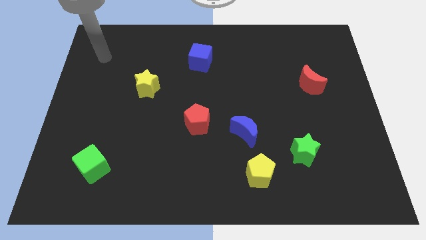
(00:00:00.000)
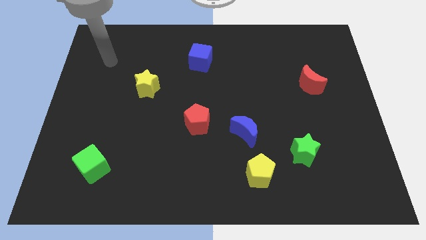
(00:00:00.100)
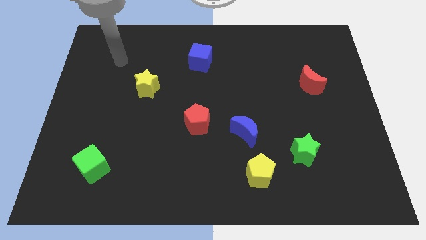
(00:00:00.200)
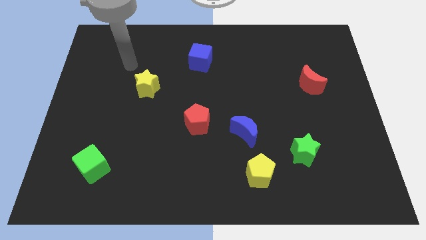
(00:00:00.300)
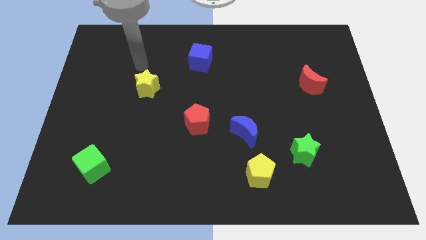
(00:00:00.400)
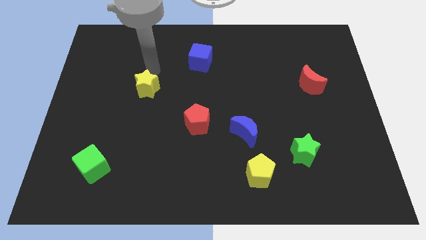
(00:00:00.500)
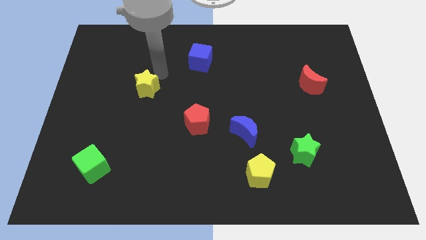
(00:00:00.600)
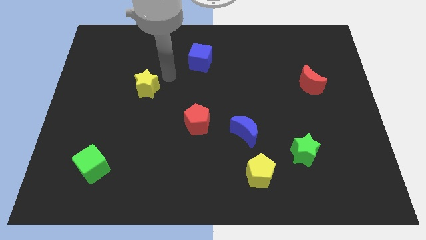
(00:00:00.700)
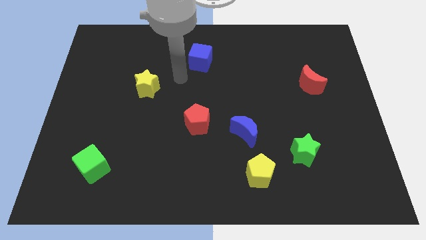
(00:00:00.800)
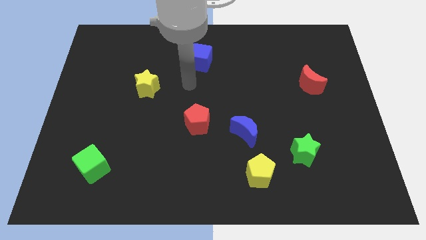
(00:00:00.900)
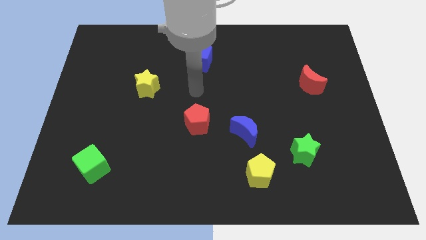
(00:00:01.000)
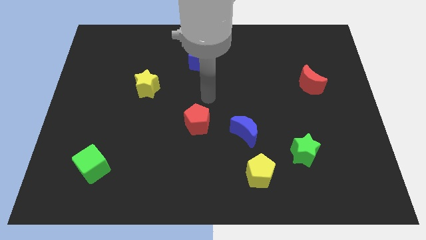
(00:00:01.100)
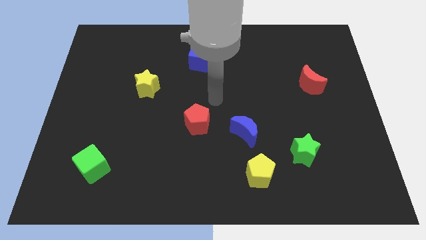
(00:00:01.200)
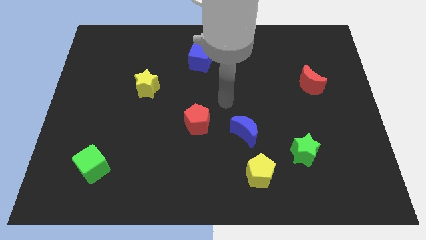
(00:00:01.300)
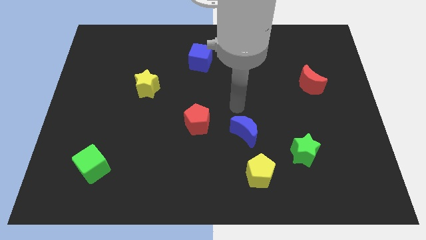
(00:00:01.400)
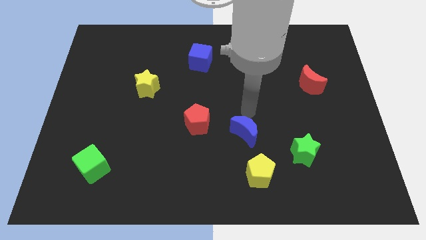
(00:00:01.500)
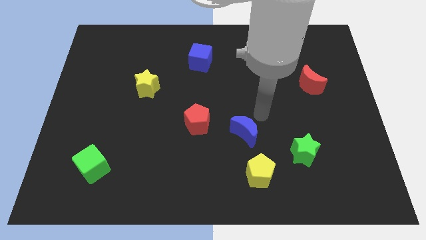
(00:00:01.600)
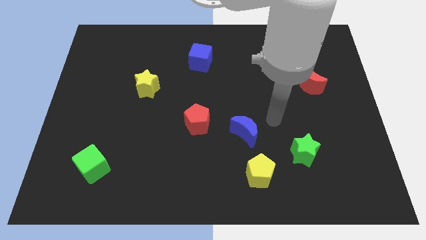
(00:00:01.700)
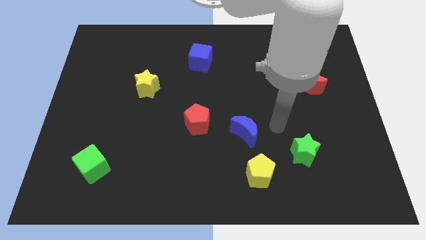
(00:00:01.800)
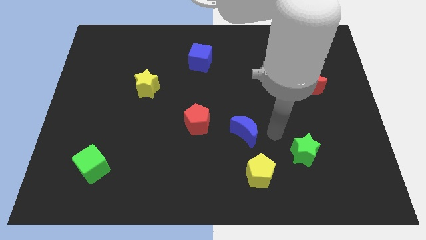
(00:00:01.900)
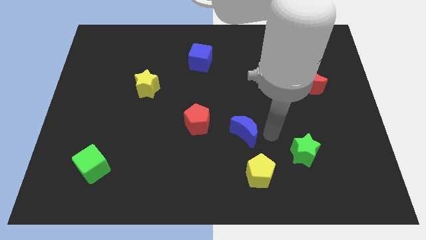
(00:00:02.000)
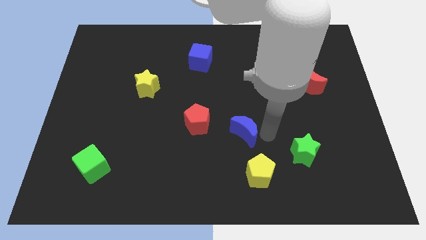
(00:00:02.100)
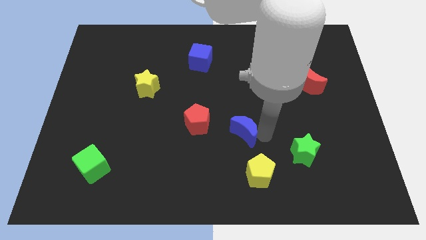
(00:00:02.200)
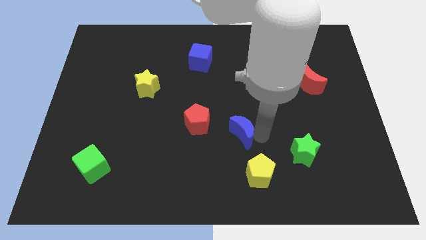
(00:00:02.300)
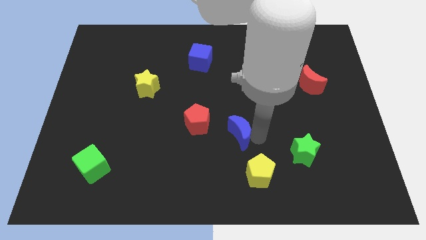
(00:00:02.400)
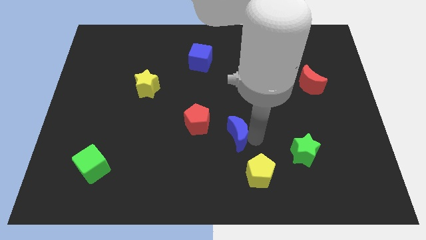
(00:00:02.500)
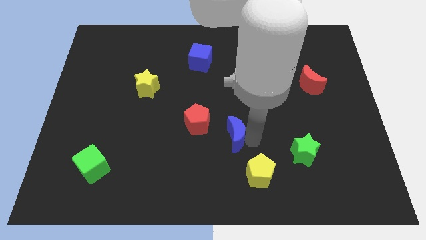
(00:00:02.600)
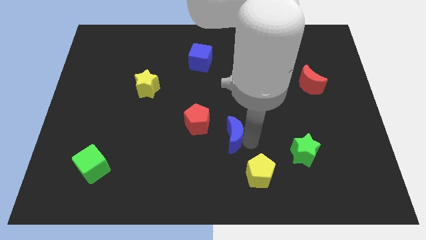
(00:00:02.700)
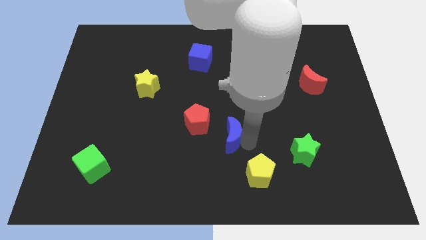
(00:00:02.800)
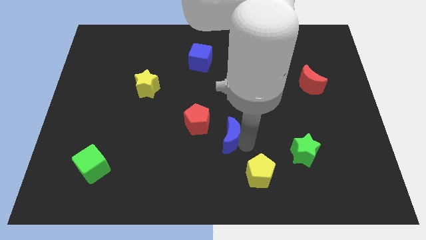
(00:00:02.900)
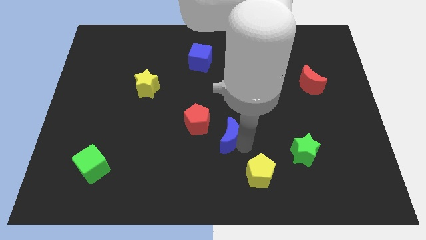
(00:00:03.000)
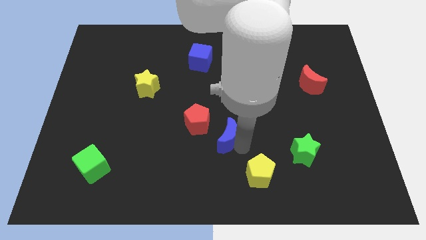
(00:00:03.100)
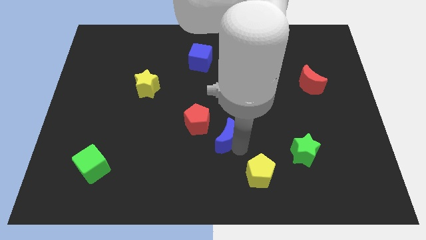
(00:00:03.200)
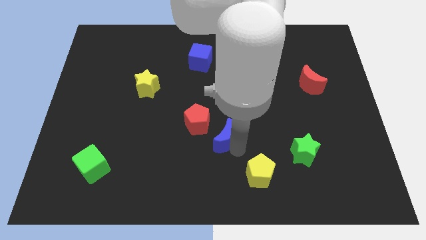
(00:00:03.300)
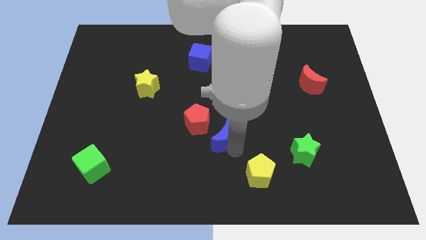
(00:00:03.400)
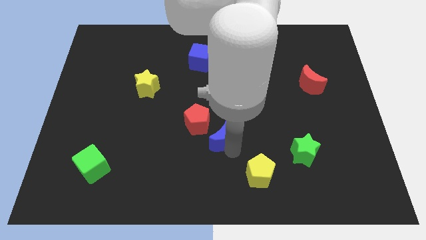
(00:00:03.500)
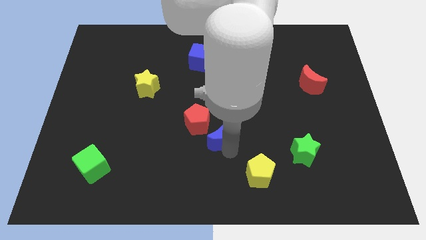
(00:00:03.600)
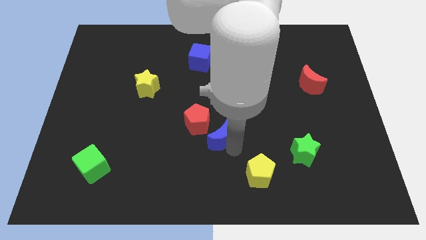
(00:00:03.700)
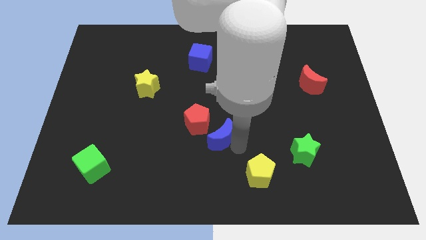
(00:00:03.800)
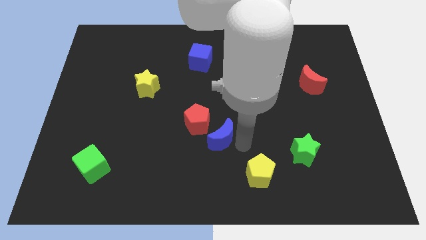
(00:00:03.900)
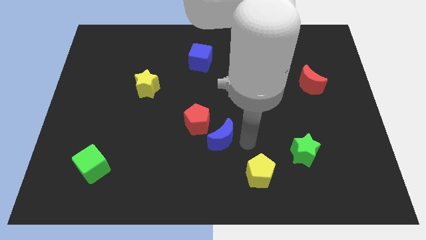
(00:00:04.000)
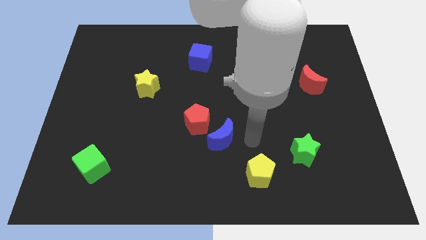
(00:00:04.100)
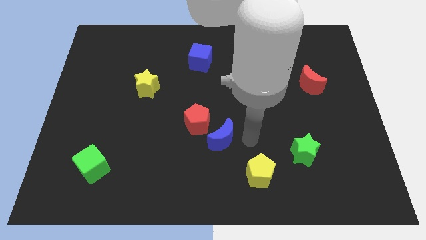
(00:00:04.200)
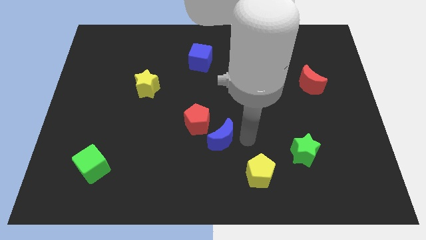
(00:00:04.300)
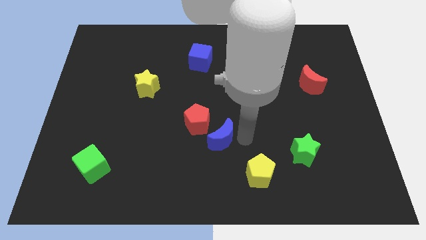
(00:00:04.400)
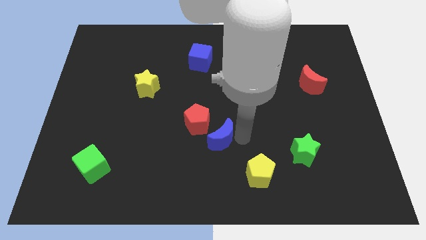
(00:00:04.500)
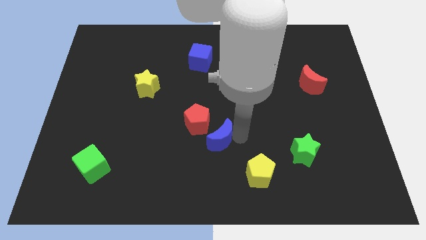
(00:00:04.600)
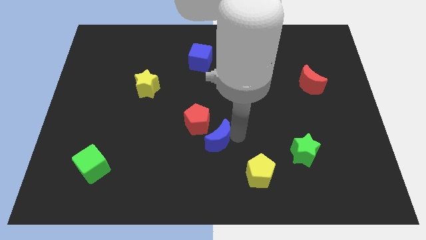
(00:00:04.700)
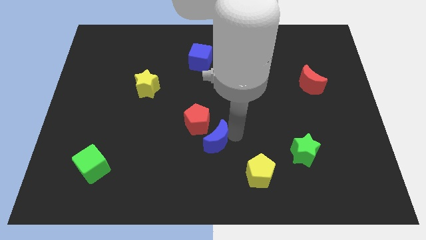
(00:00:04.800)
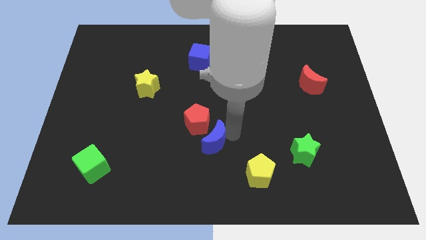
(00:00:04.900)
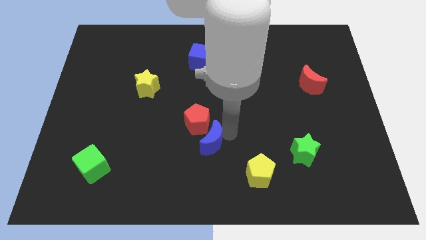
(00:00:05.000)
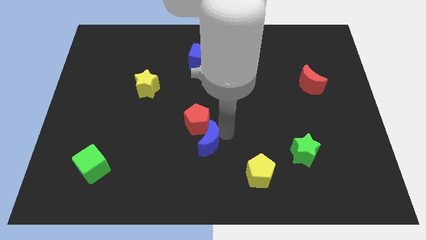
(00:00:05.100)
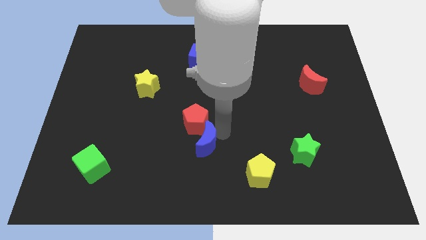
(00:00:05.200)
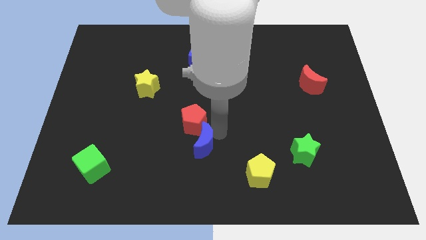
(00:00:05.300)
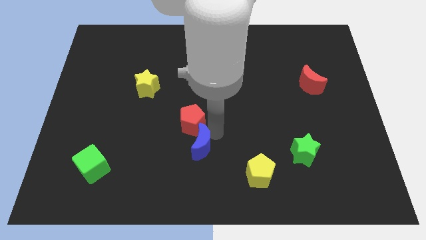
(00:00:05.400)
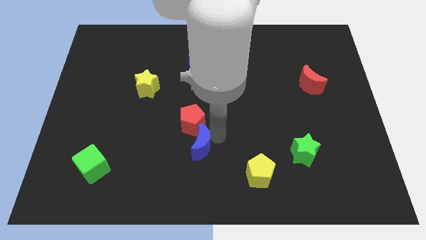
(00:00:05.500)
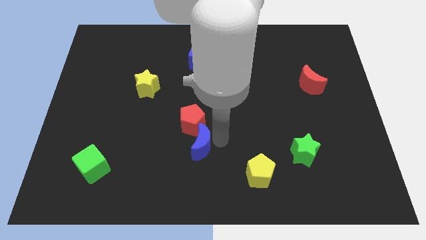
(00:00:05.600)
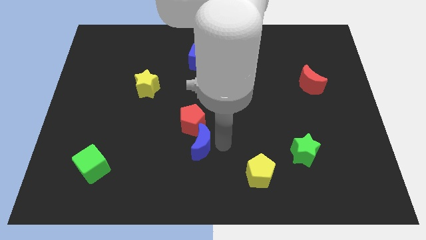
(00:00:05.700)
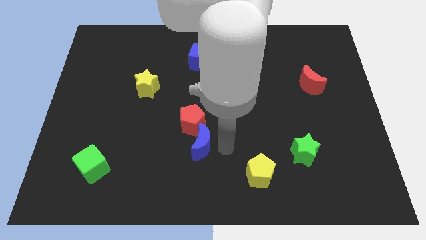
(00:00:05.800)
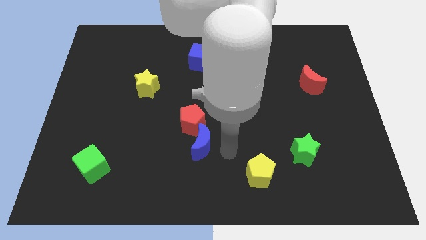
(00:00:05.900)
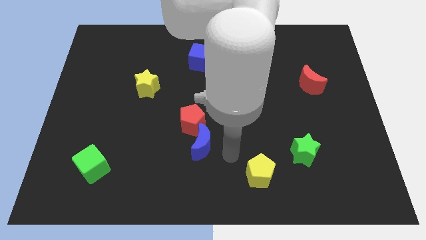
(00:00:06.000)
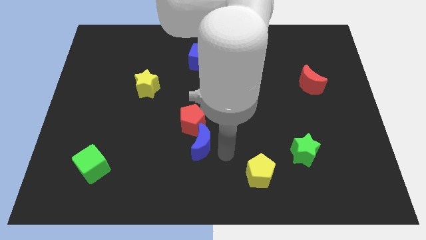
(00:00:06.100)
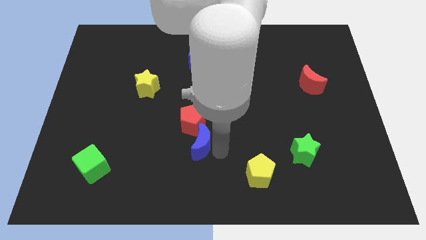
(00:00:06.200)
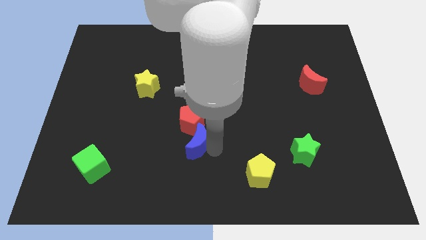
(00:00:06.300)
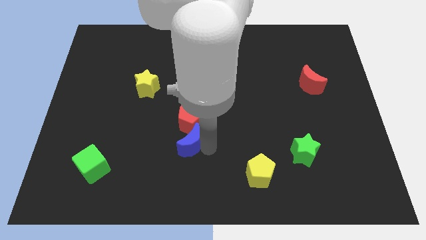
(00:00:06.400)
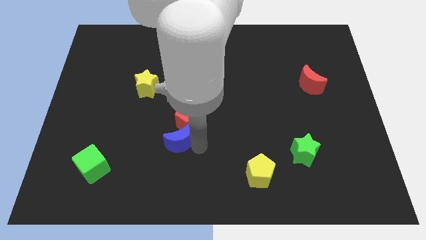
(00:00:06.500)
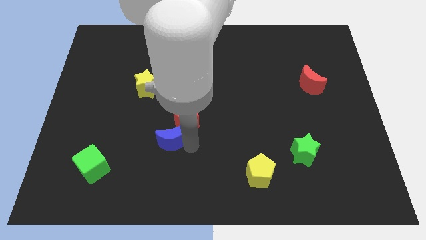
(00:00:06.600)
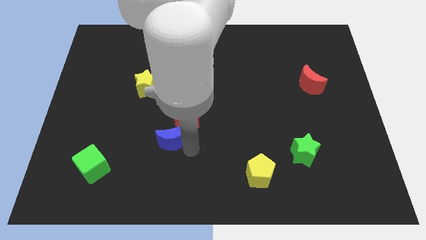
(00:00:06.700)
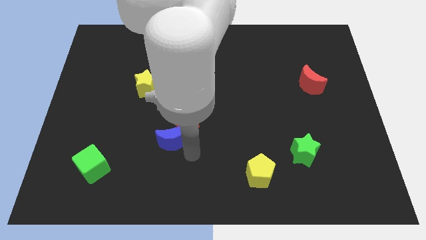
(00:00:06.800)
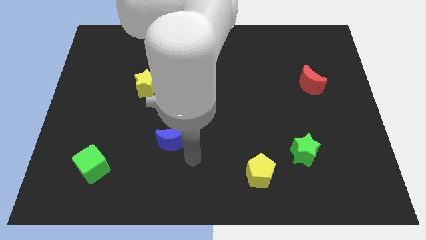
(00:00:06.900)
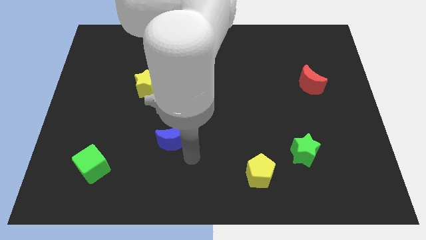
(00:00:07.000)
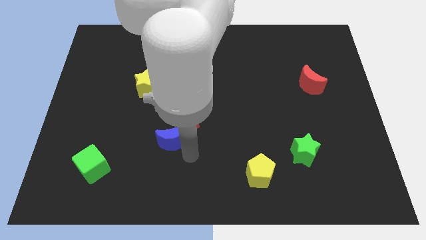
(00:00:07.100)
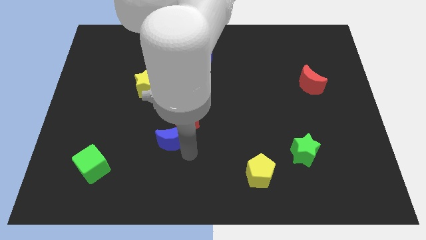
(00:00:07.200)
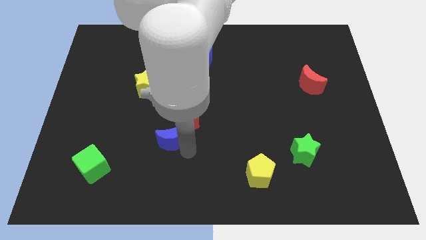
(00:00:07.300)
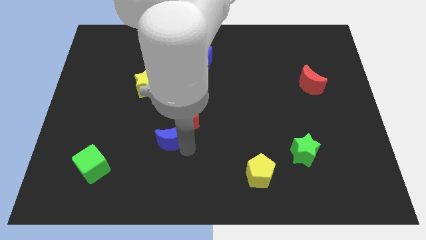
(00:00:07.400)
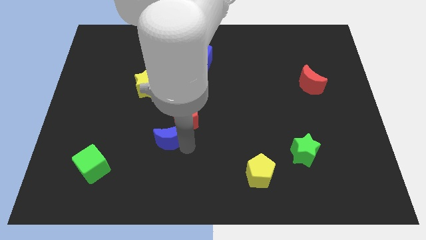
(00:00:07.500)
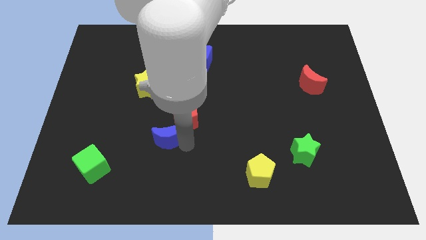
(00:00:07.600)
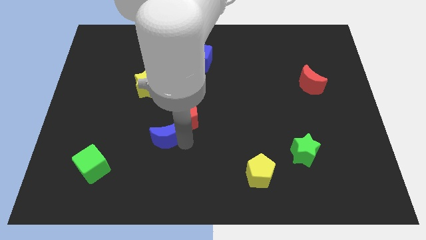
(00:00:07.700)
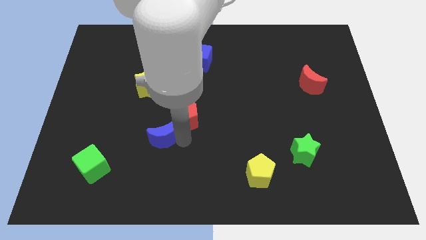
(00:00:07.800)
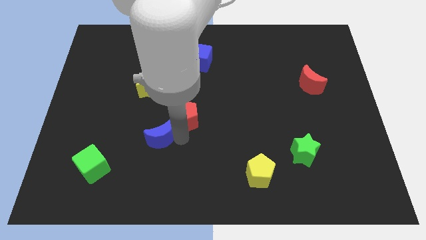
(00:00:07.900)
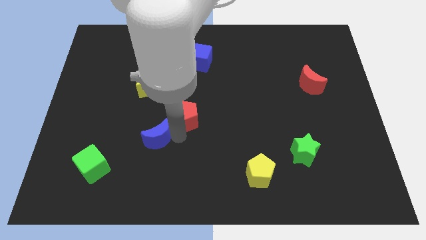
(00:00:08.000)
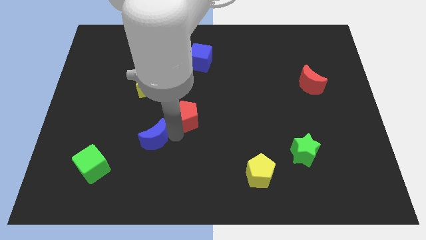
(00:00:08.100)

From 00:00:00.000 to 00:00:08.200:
push the blue moon to the bottom of the yellow star
